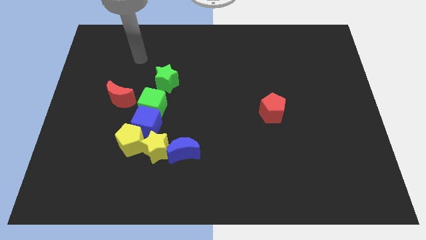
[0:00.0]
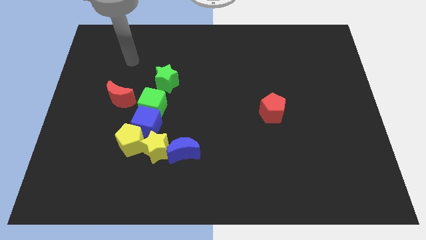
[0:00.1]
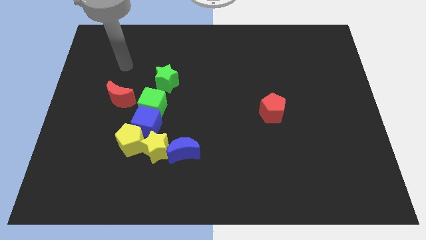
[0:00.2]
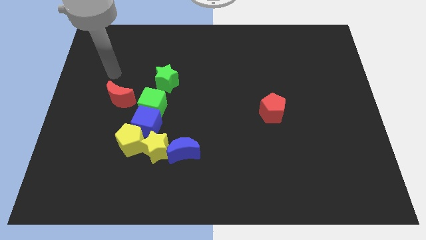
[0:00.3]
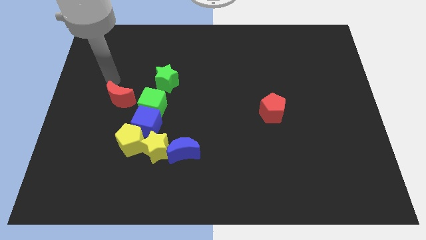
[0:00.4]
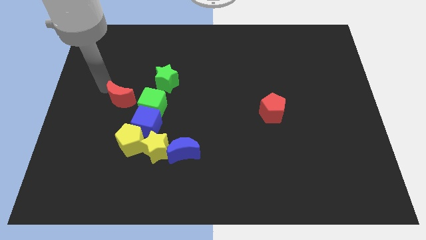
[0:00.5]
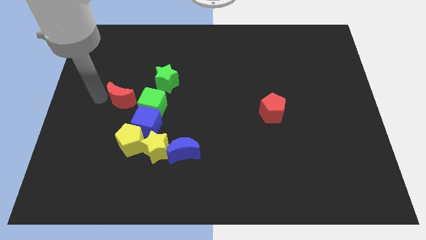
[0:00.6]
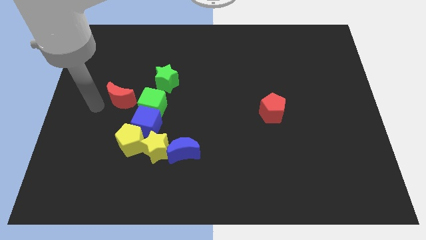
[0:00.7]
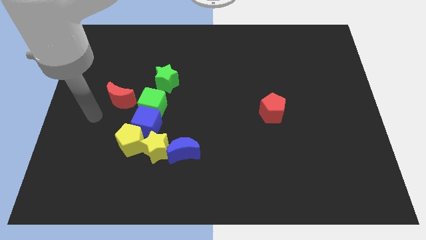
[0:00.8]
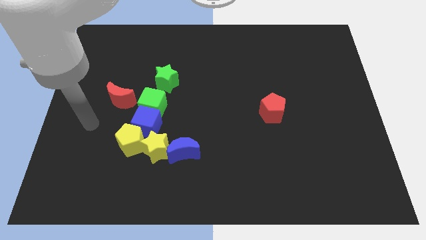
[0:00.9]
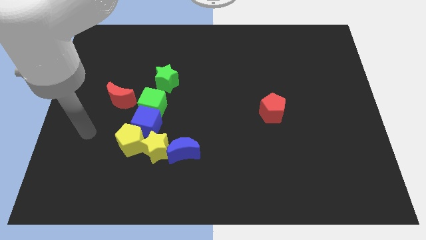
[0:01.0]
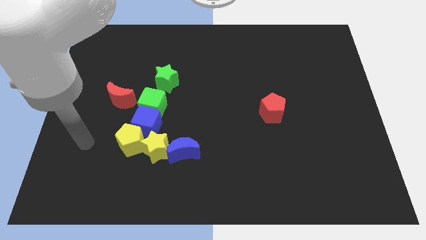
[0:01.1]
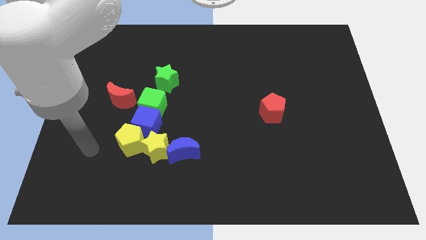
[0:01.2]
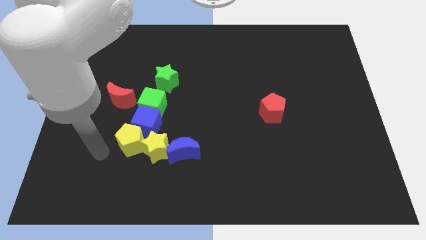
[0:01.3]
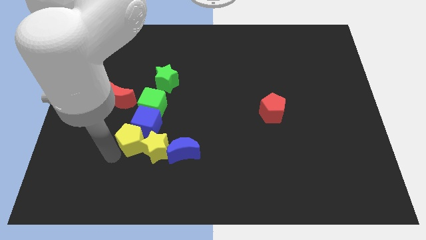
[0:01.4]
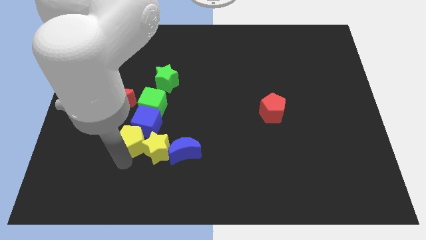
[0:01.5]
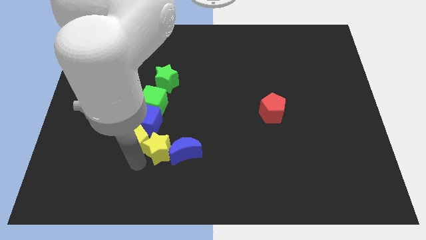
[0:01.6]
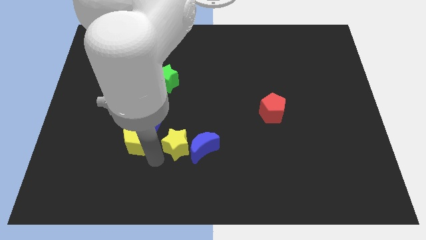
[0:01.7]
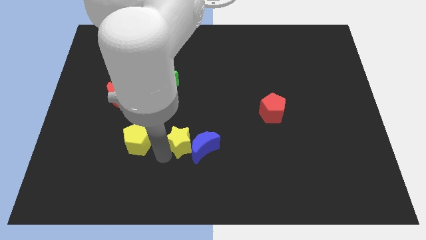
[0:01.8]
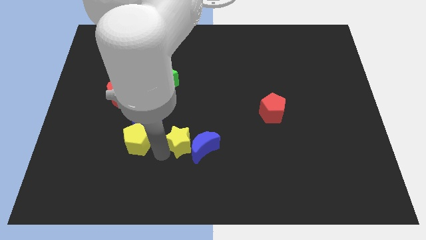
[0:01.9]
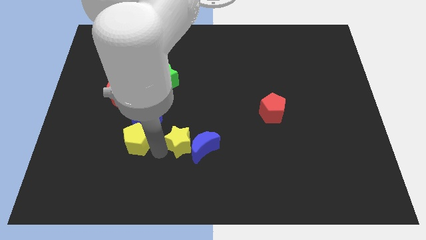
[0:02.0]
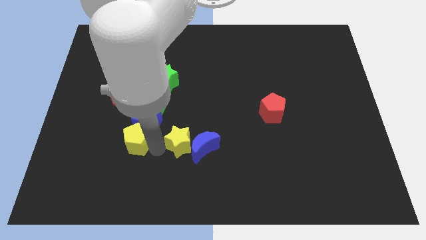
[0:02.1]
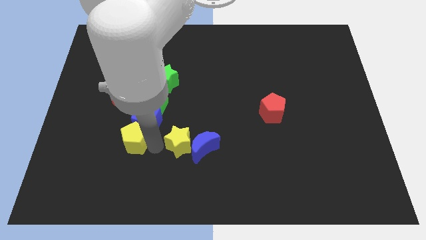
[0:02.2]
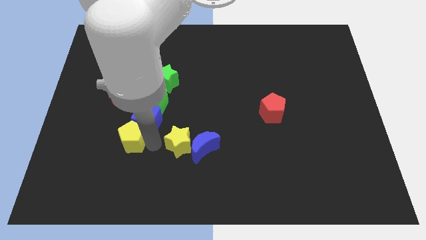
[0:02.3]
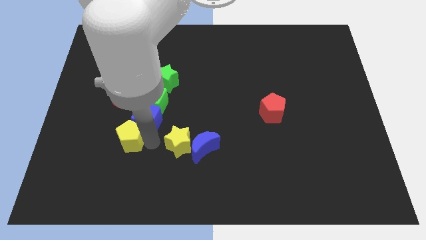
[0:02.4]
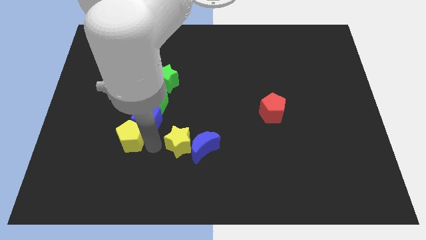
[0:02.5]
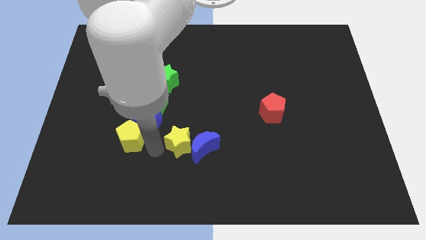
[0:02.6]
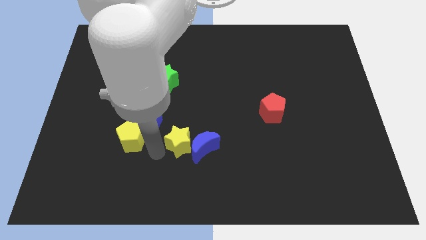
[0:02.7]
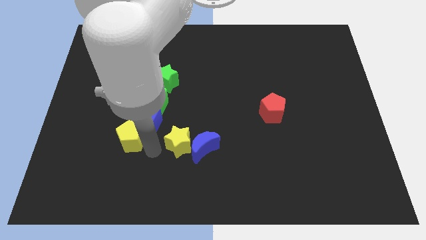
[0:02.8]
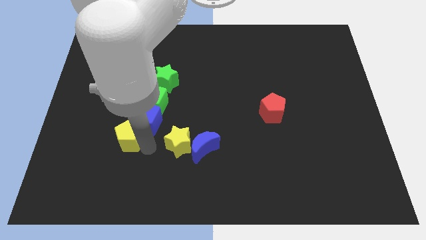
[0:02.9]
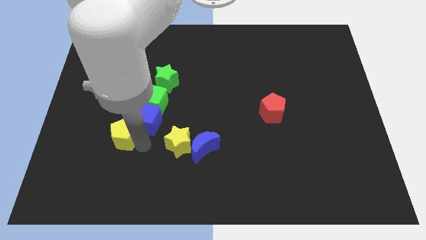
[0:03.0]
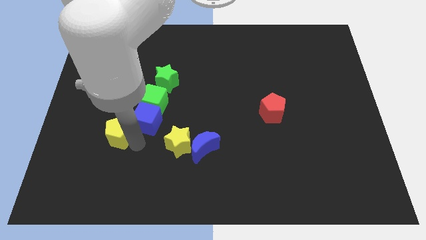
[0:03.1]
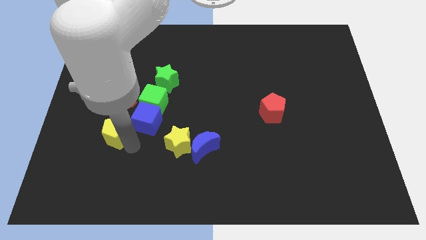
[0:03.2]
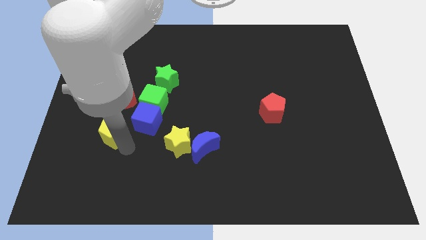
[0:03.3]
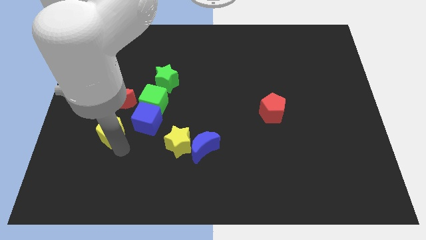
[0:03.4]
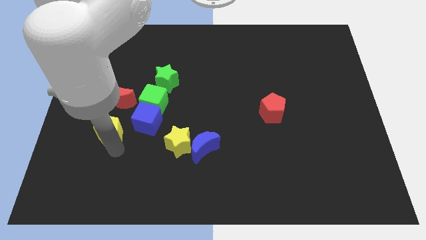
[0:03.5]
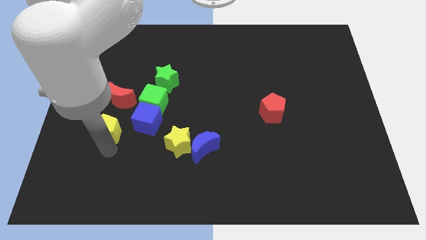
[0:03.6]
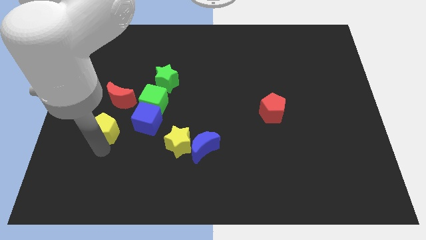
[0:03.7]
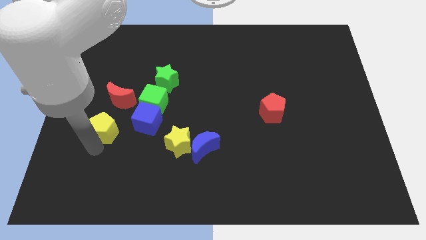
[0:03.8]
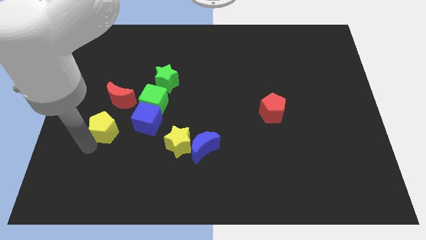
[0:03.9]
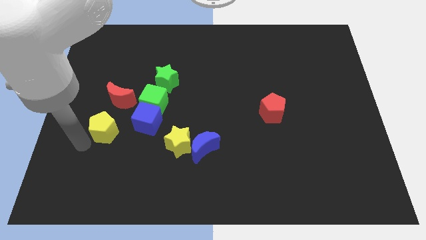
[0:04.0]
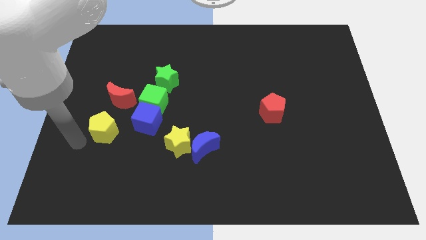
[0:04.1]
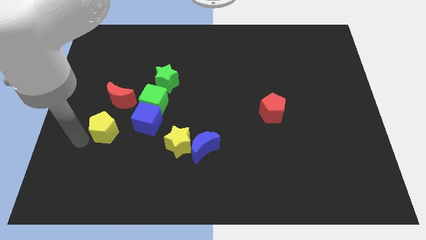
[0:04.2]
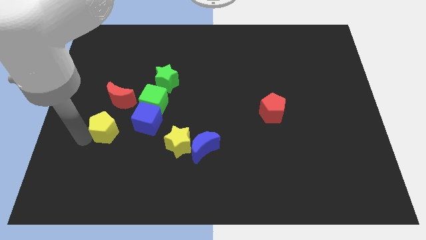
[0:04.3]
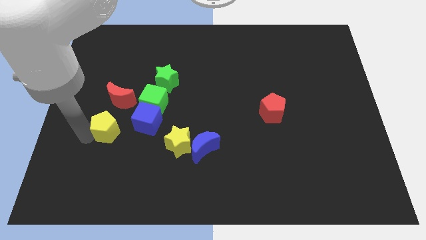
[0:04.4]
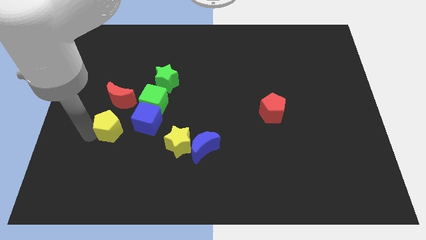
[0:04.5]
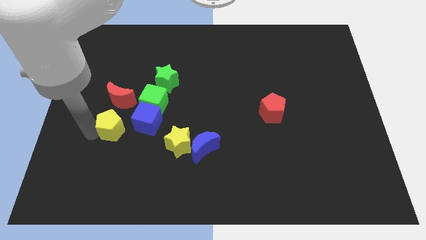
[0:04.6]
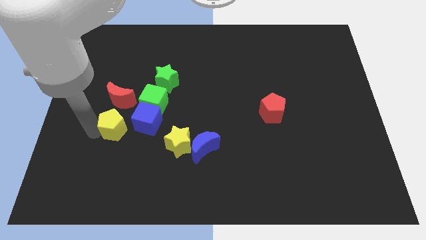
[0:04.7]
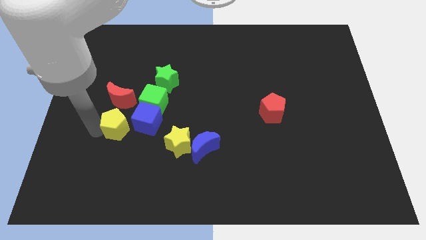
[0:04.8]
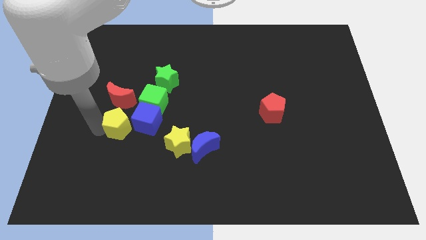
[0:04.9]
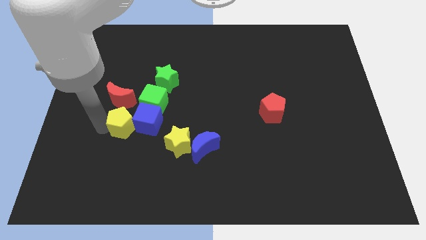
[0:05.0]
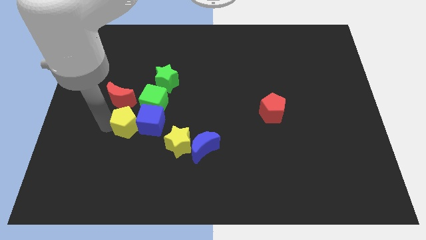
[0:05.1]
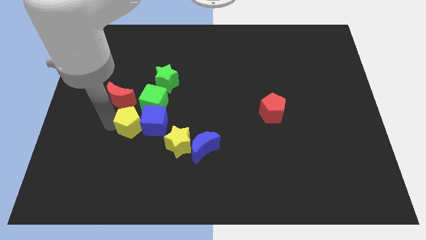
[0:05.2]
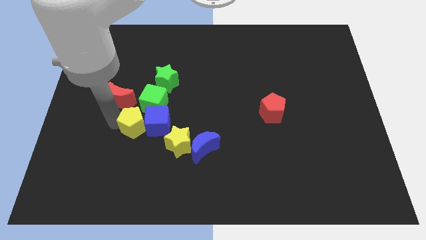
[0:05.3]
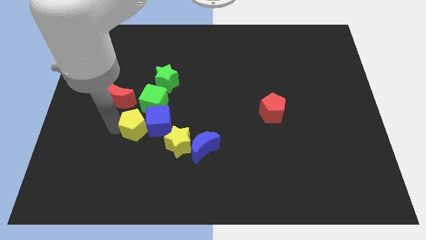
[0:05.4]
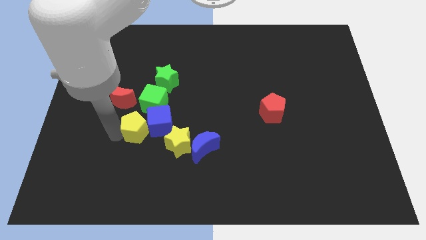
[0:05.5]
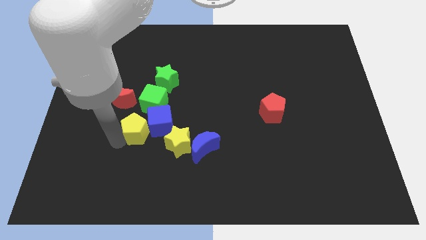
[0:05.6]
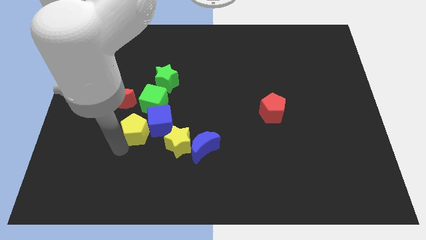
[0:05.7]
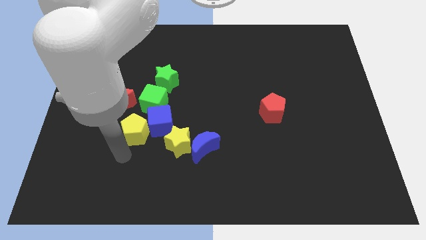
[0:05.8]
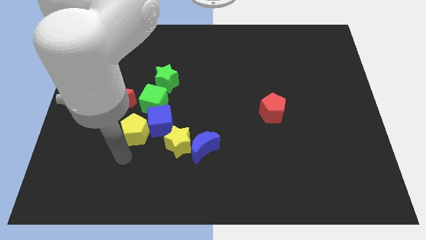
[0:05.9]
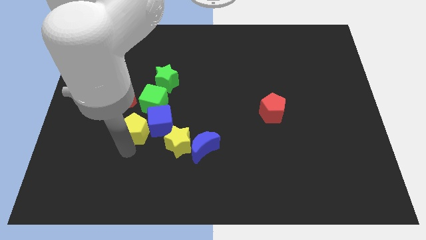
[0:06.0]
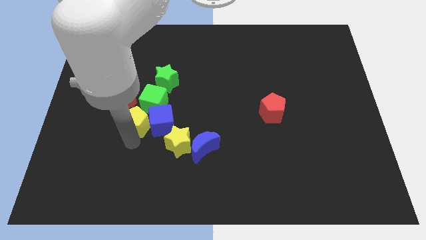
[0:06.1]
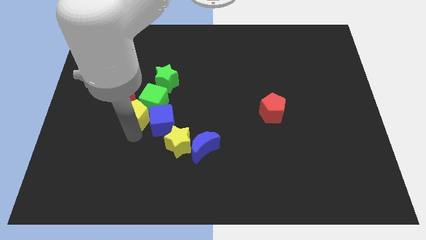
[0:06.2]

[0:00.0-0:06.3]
move the yellow pentagon close to the green cube

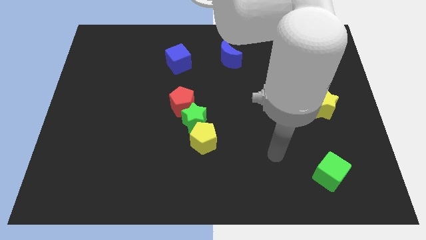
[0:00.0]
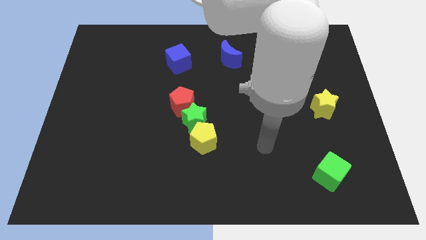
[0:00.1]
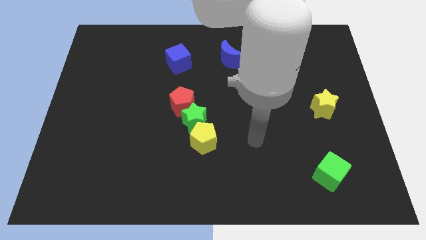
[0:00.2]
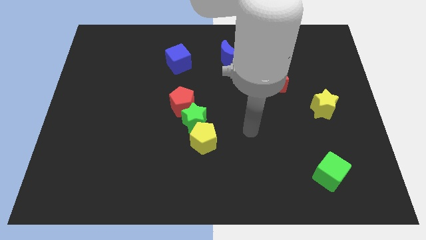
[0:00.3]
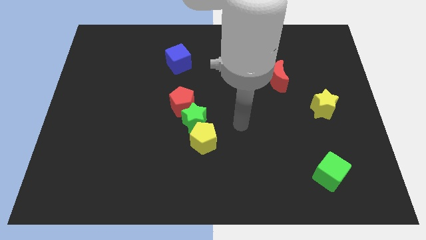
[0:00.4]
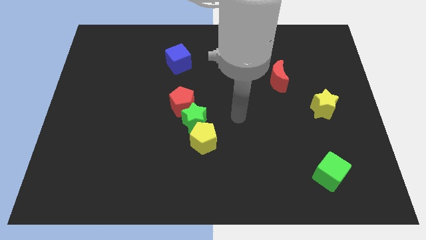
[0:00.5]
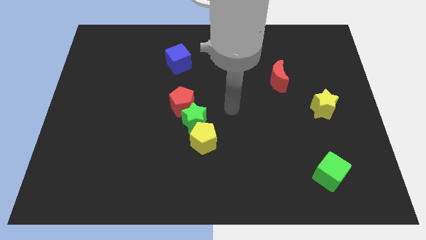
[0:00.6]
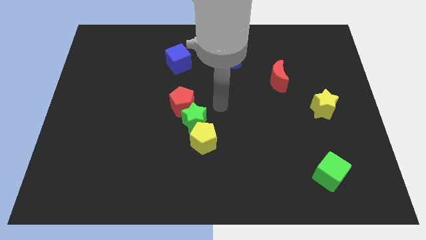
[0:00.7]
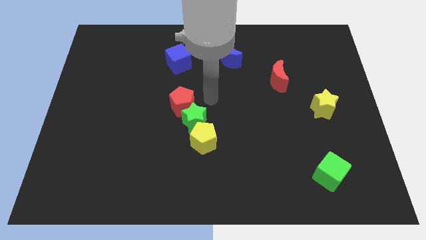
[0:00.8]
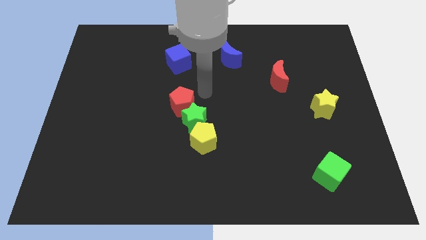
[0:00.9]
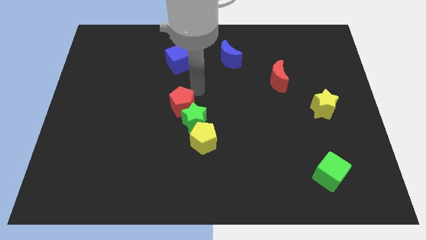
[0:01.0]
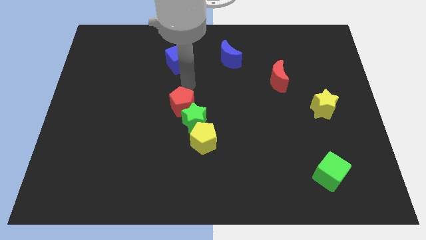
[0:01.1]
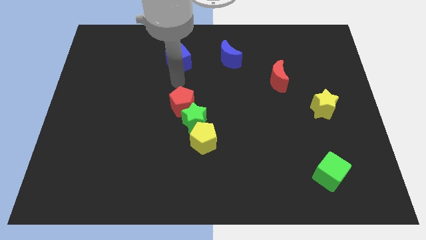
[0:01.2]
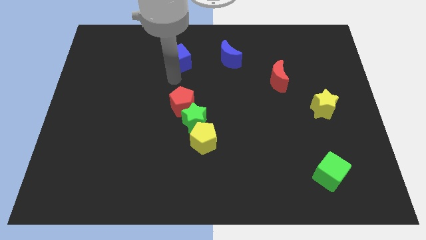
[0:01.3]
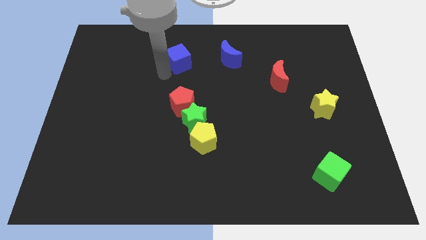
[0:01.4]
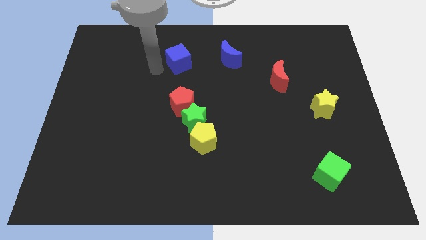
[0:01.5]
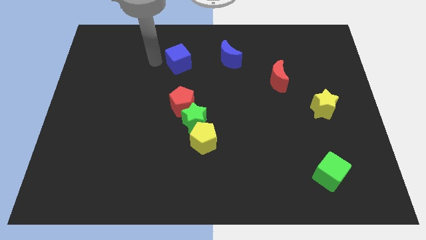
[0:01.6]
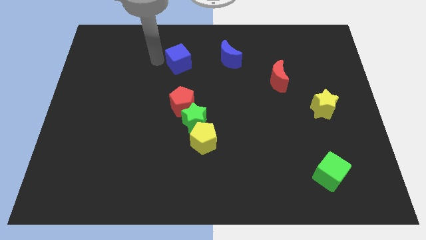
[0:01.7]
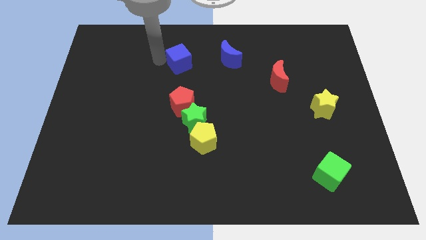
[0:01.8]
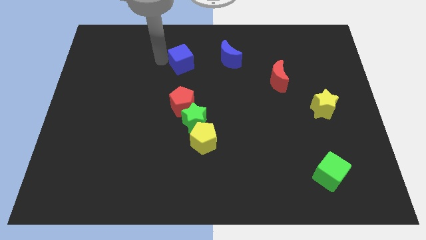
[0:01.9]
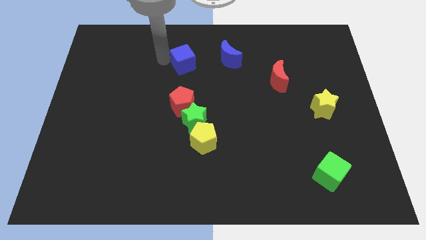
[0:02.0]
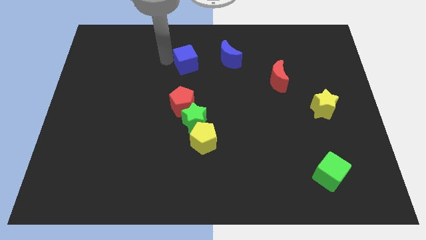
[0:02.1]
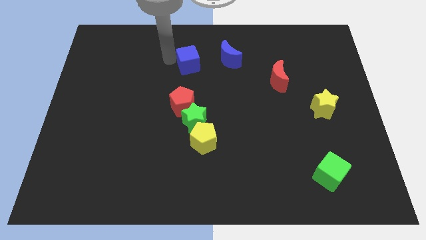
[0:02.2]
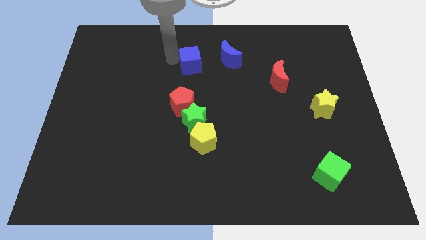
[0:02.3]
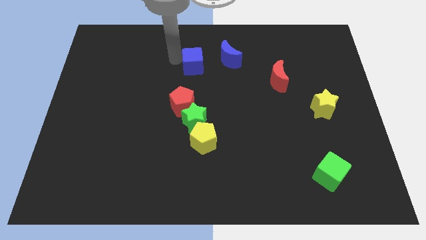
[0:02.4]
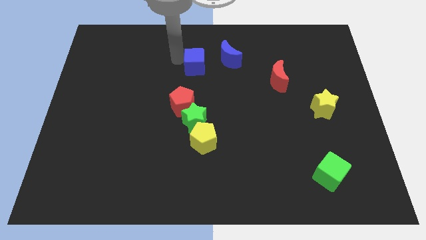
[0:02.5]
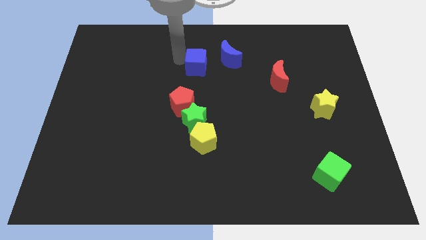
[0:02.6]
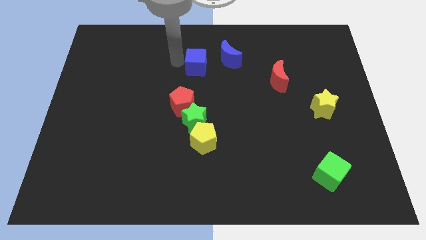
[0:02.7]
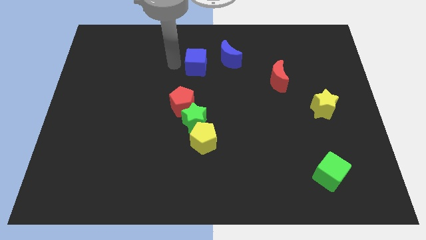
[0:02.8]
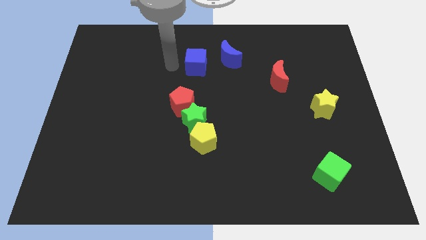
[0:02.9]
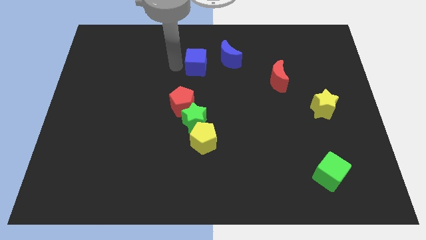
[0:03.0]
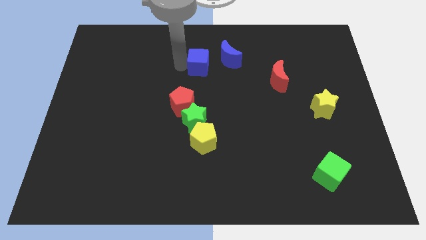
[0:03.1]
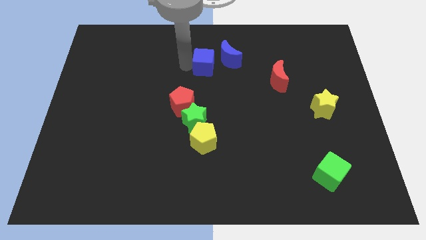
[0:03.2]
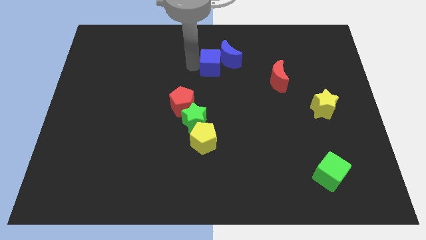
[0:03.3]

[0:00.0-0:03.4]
put the blue cube next to the blue moon
